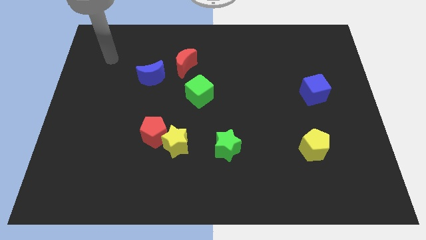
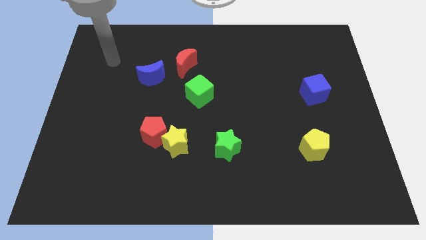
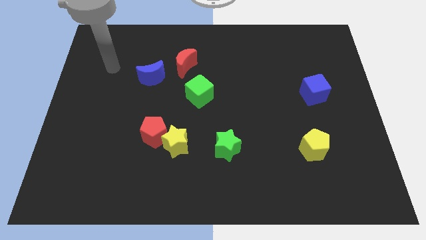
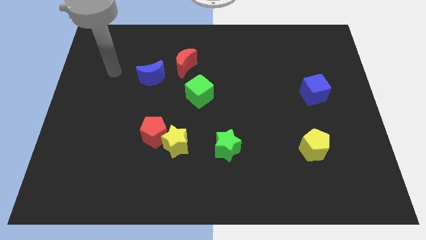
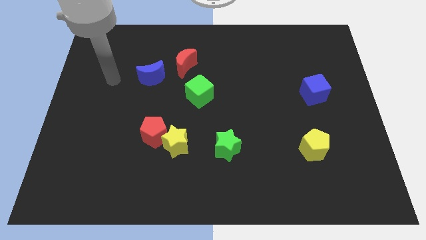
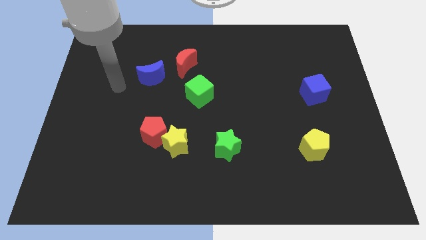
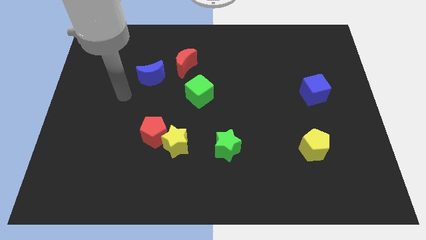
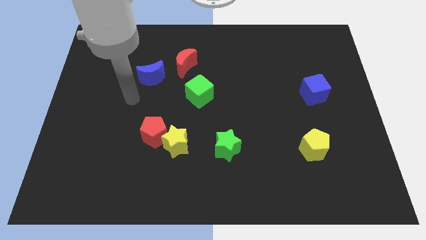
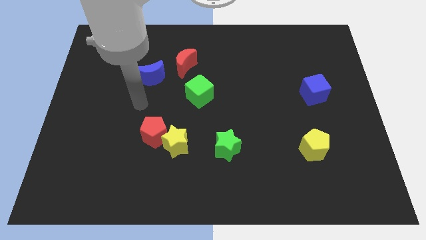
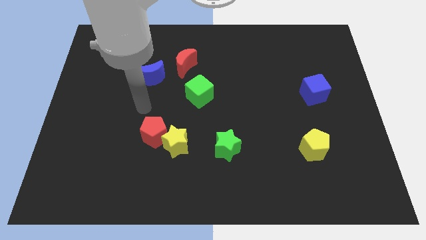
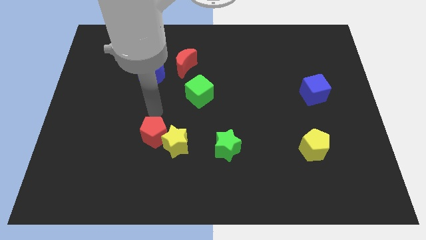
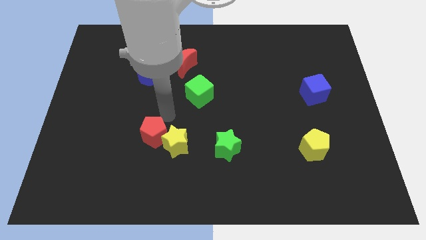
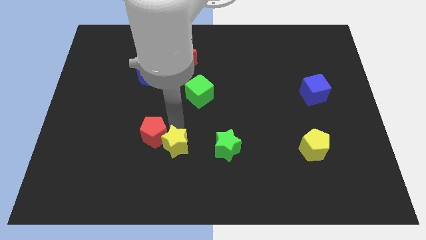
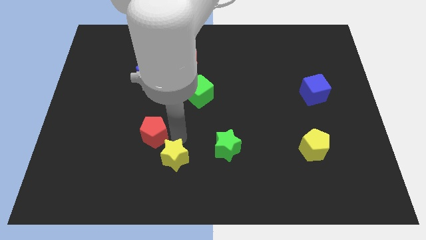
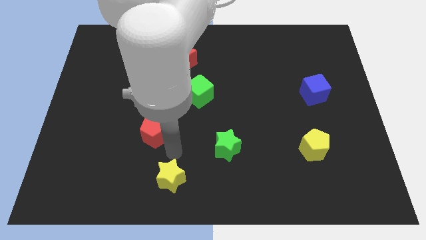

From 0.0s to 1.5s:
move the red pentagon away from the yellow star

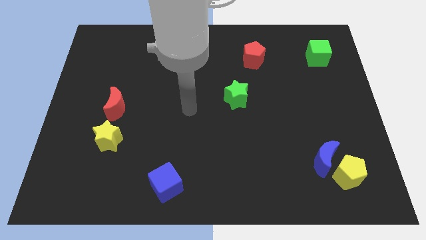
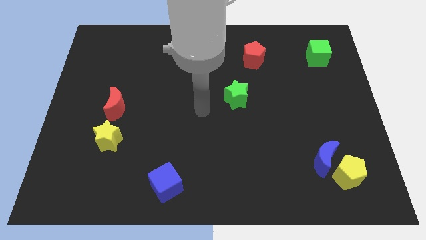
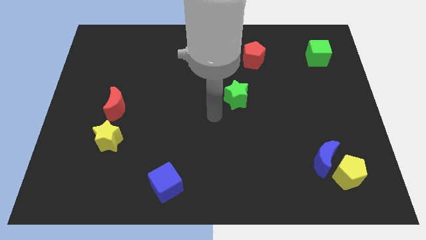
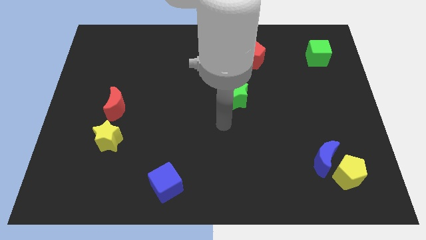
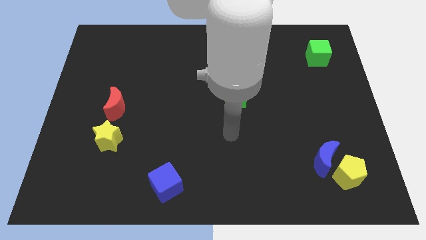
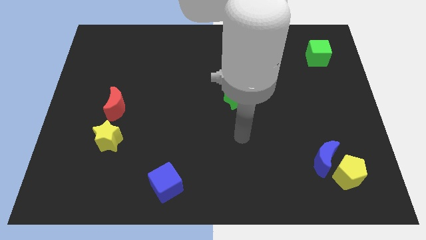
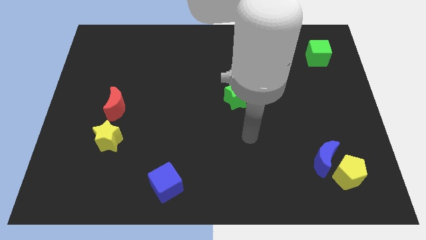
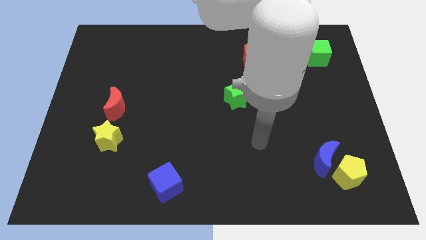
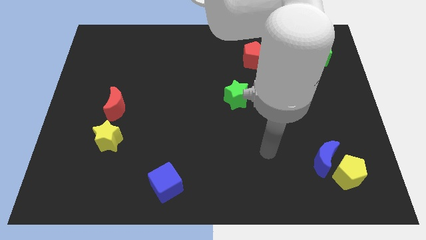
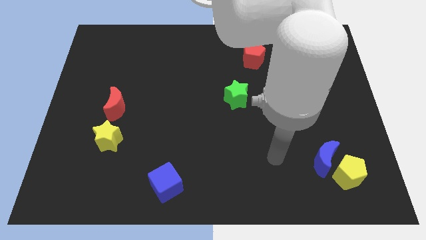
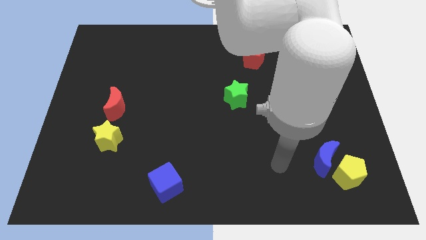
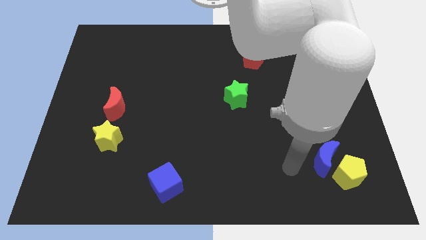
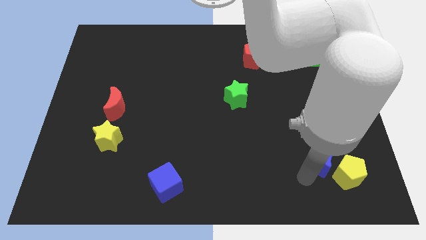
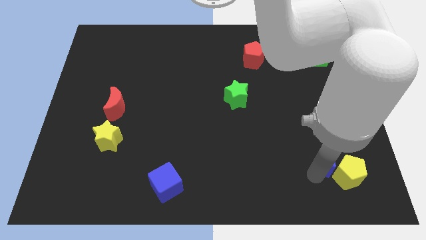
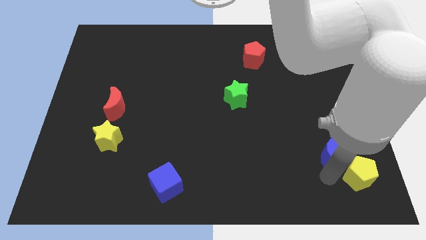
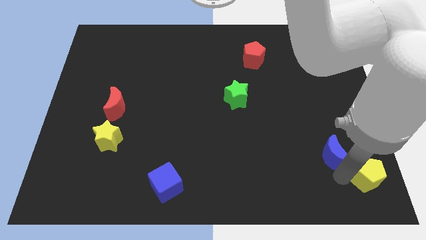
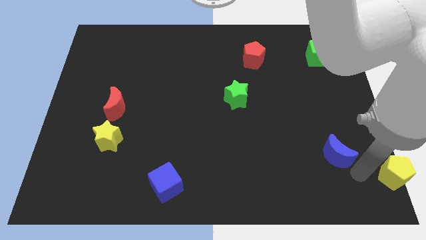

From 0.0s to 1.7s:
separate the blue moon from the yellow pentagon

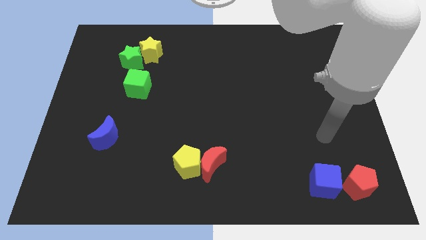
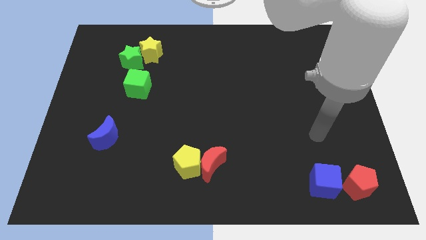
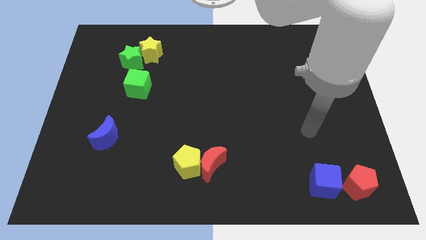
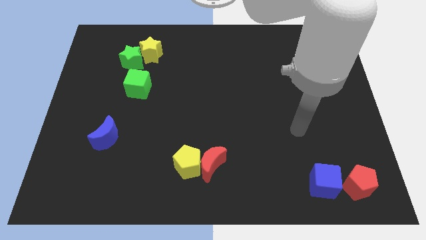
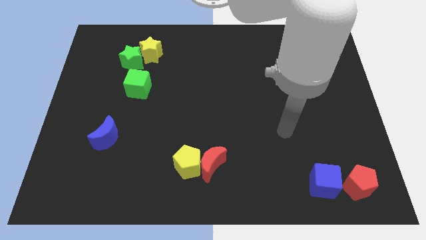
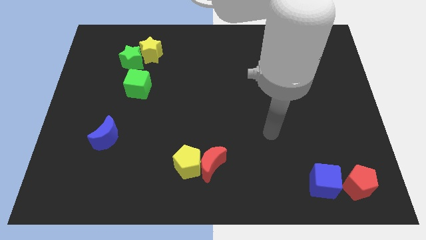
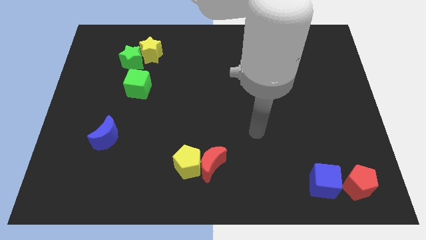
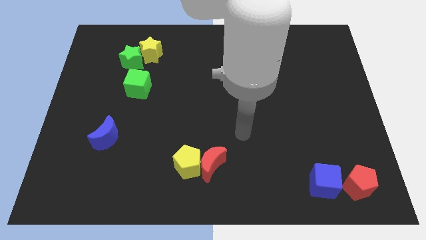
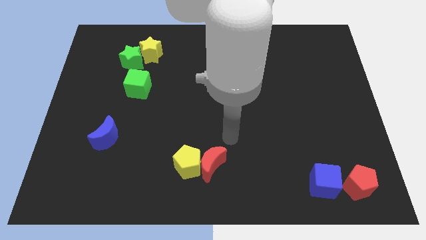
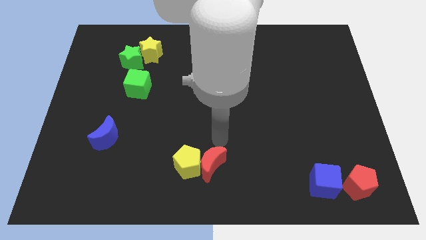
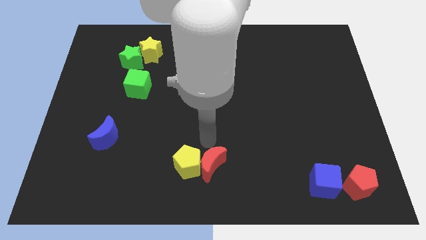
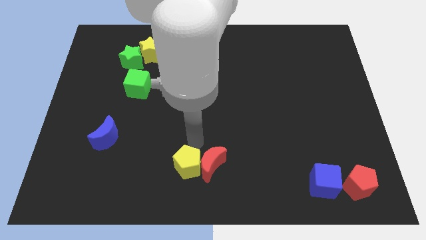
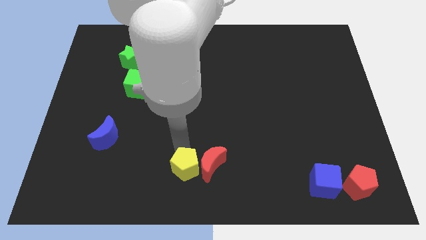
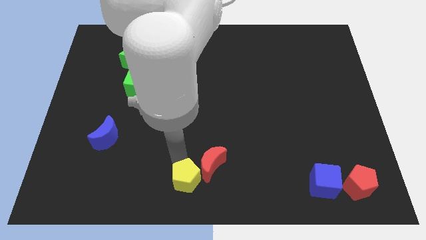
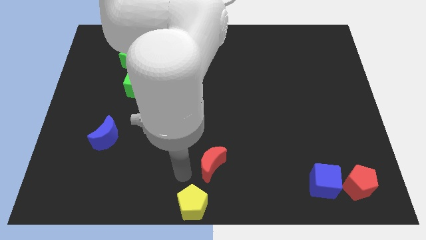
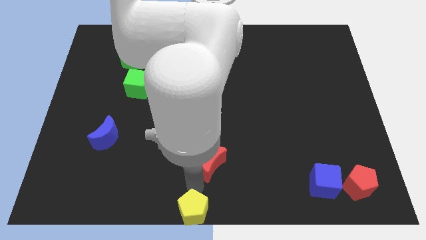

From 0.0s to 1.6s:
pull the red moon apart from the yellow pentagon

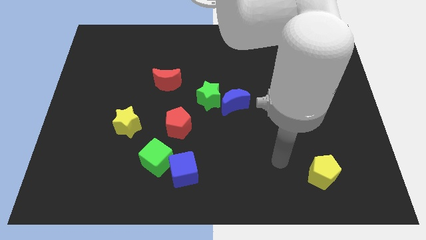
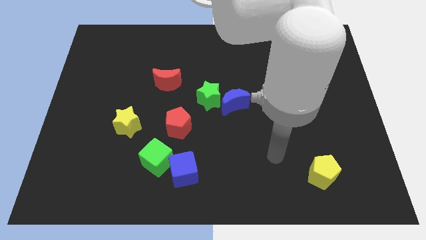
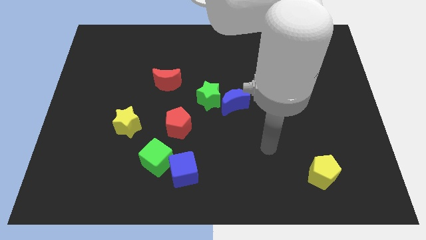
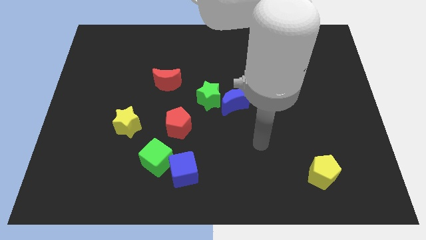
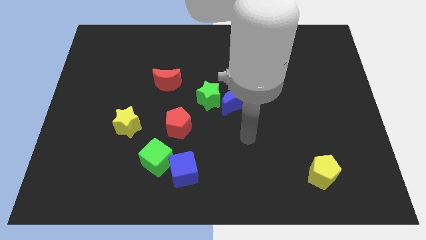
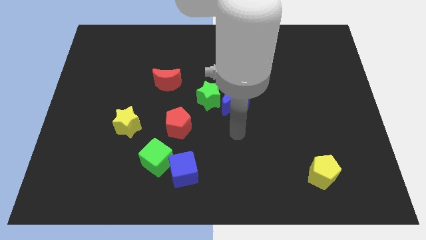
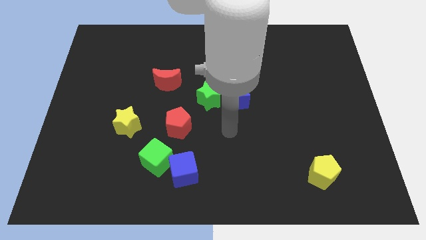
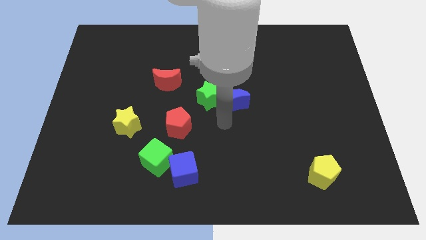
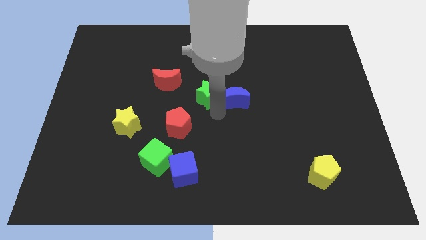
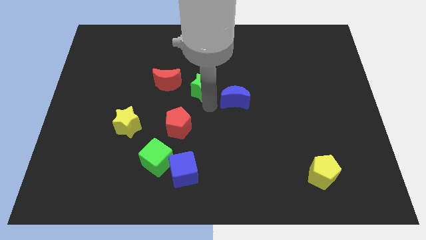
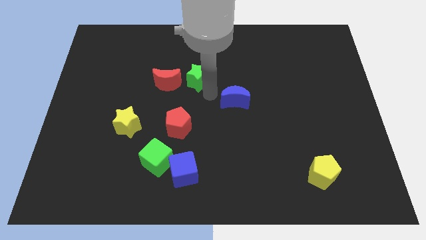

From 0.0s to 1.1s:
separate the blue moon from the green star

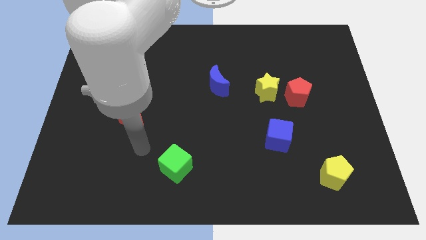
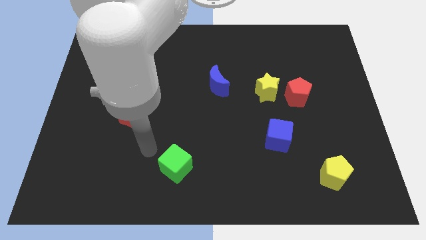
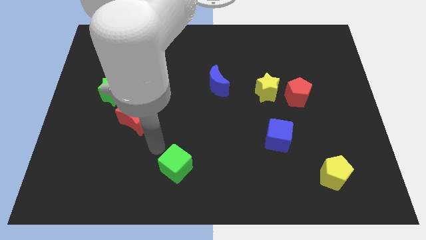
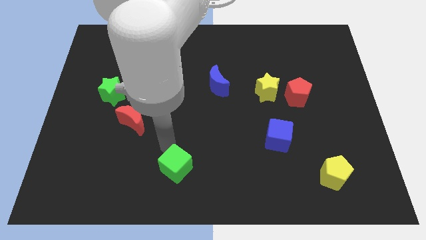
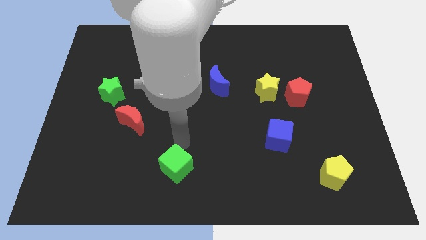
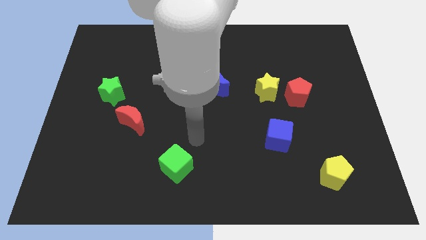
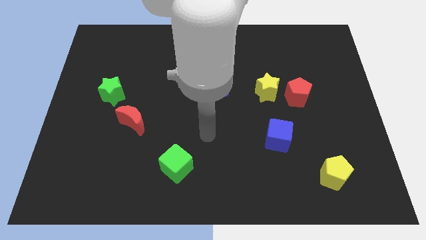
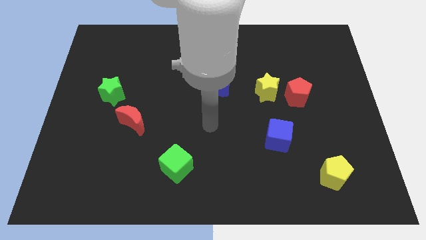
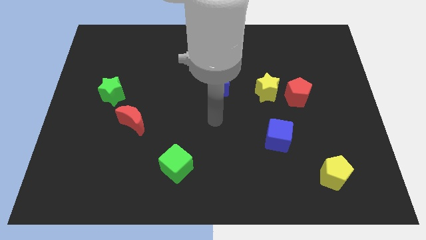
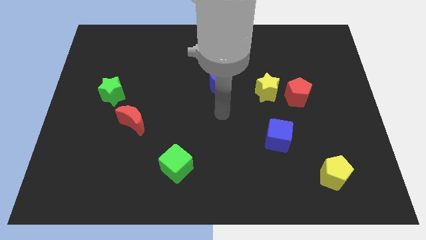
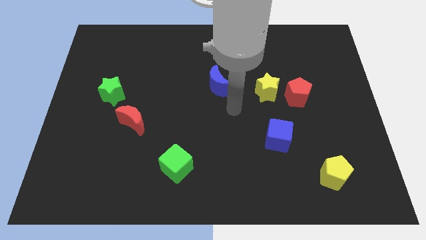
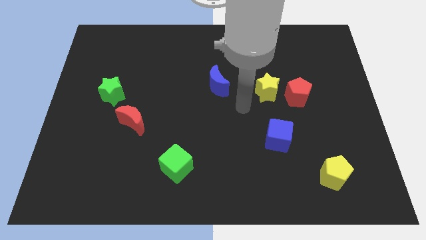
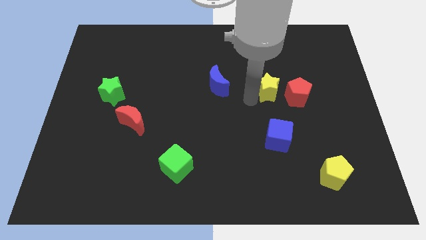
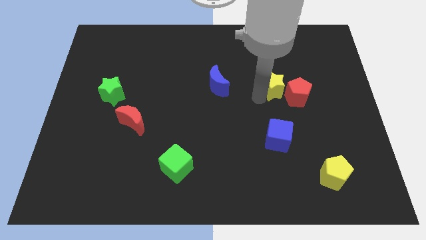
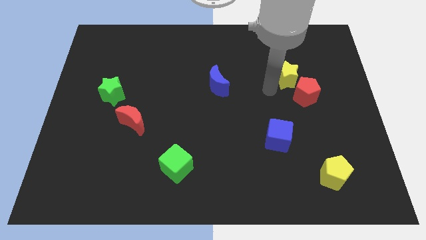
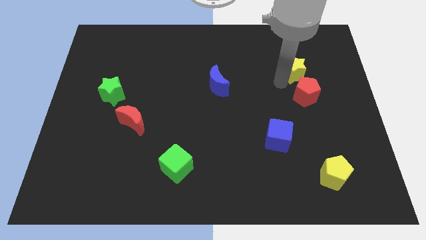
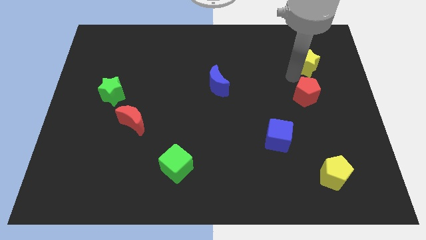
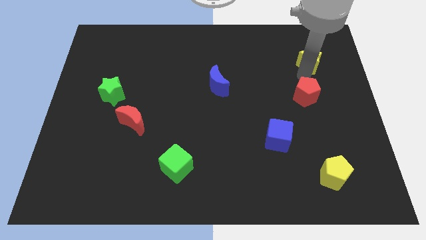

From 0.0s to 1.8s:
pull the red pentagon apart from the yellow star

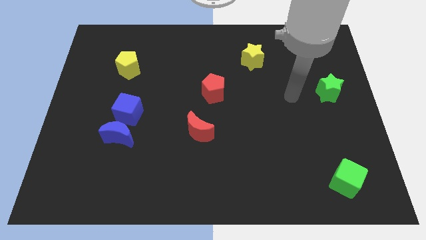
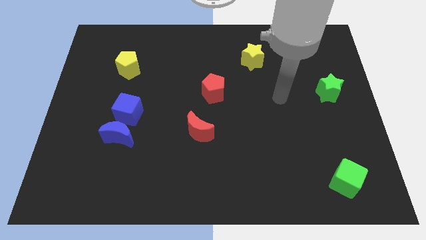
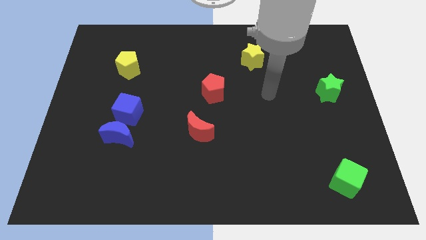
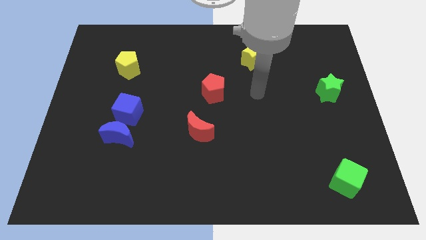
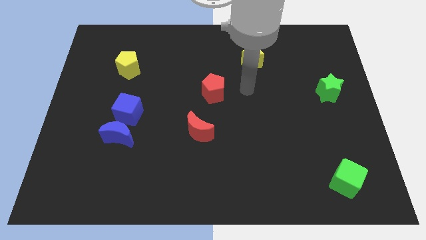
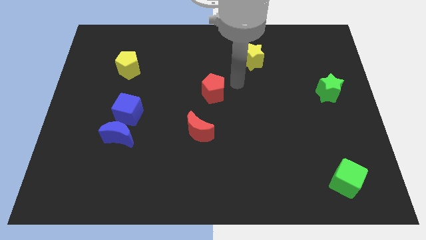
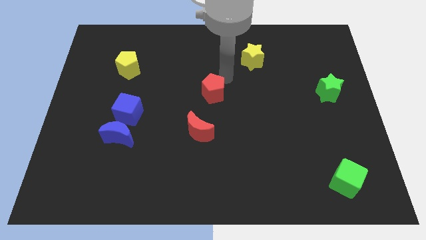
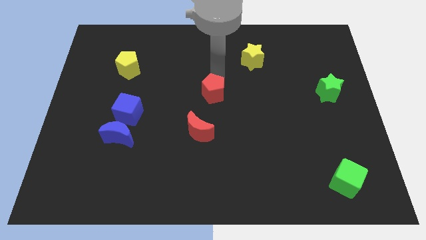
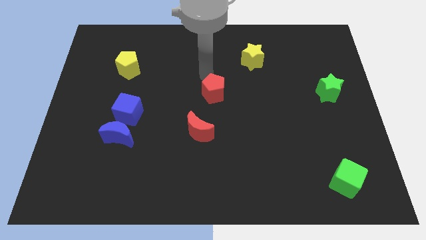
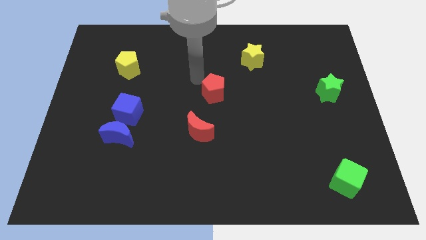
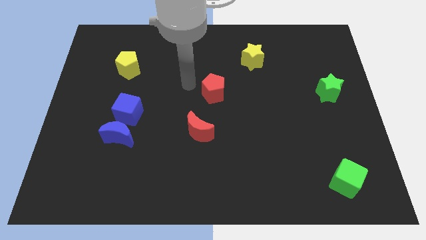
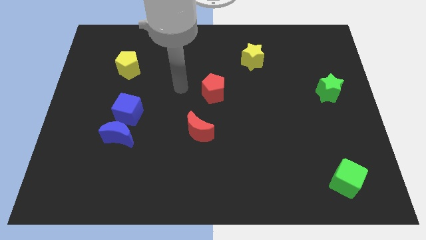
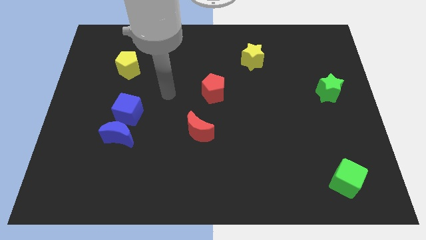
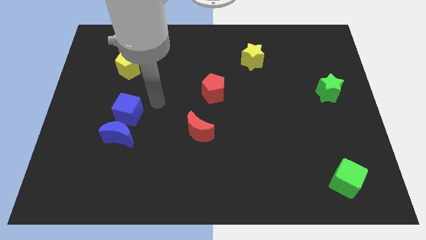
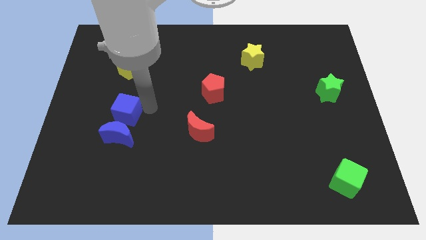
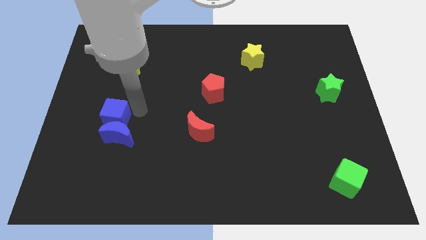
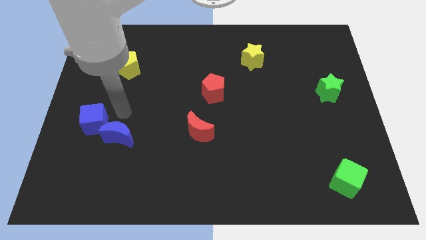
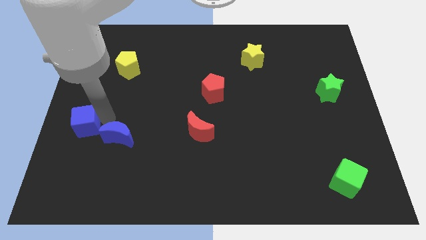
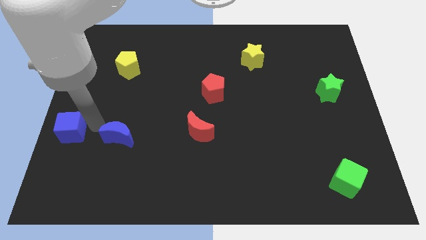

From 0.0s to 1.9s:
pull the blue moon apart from the blue cube
